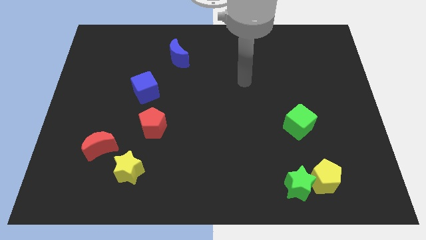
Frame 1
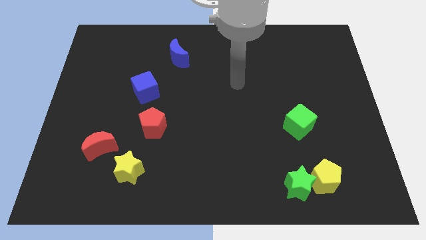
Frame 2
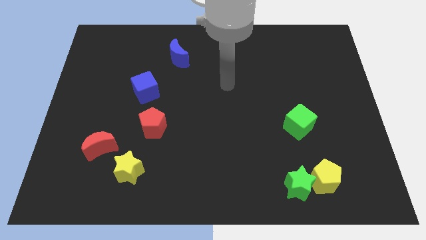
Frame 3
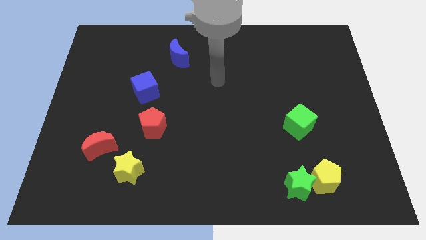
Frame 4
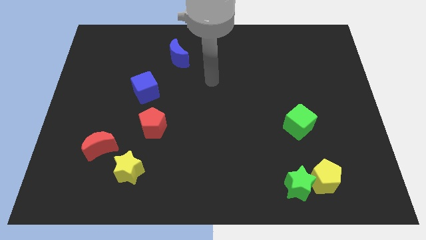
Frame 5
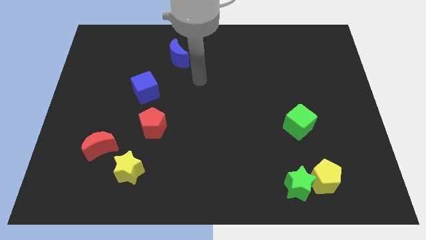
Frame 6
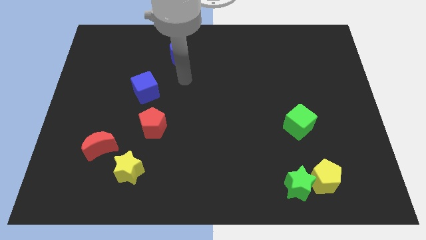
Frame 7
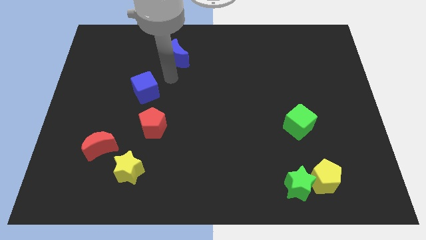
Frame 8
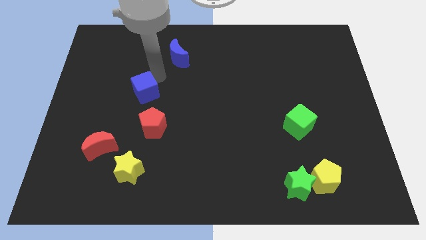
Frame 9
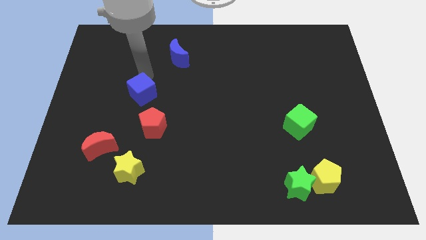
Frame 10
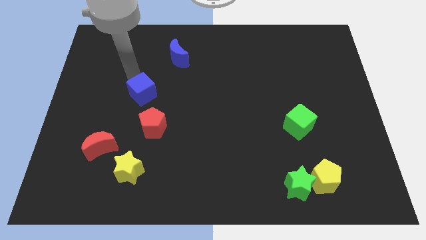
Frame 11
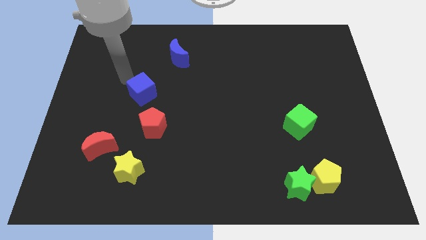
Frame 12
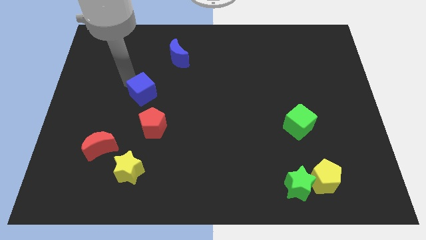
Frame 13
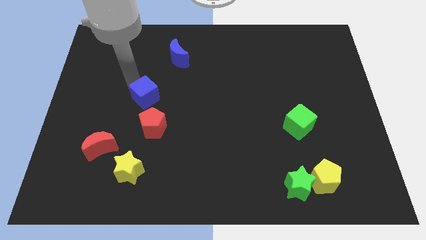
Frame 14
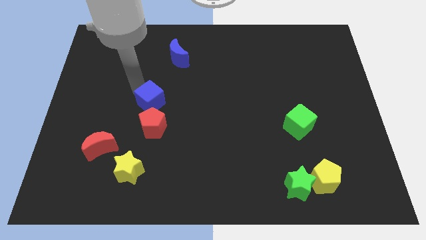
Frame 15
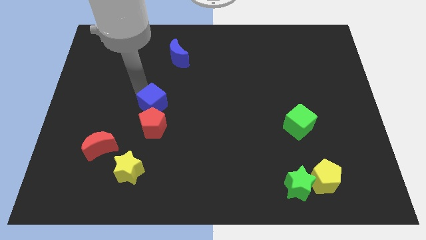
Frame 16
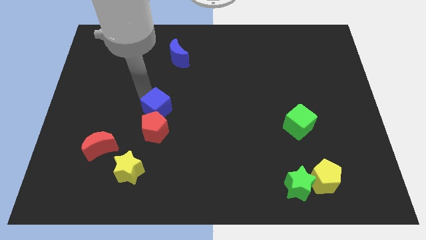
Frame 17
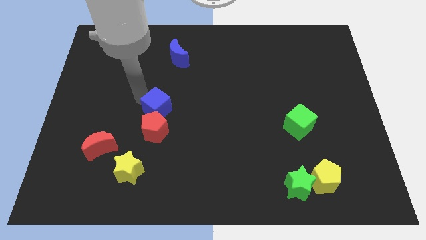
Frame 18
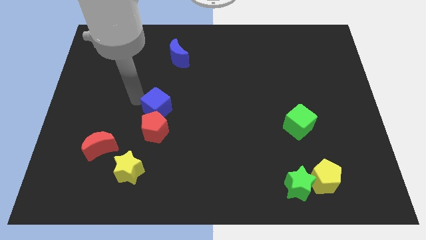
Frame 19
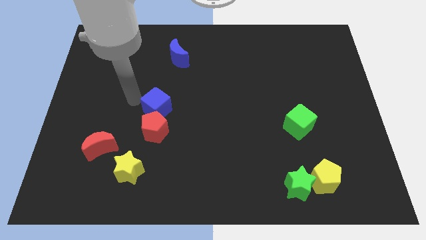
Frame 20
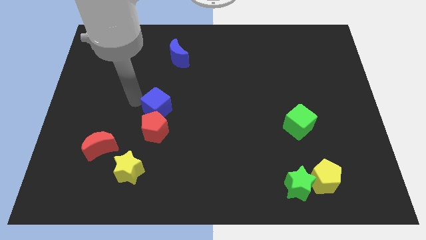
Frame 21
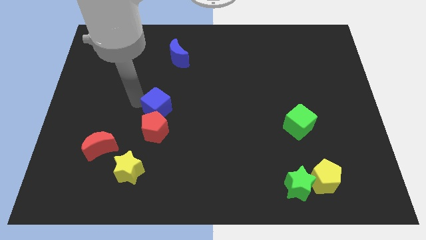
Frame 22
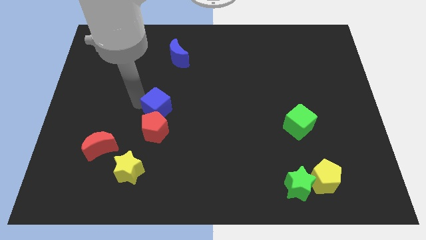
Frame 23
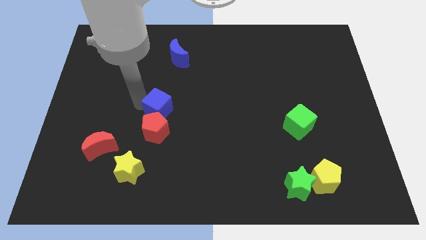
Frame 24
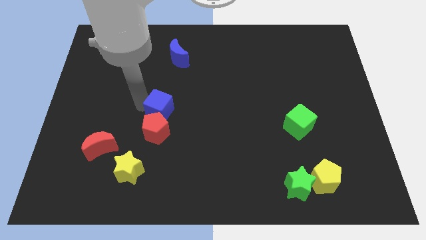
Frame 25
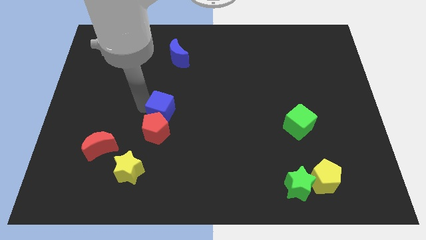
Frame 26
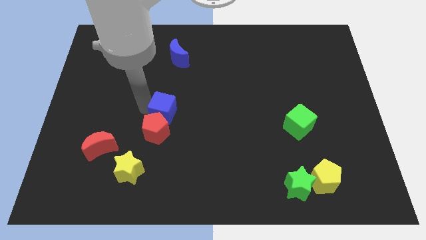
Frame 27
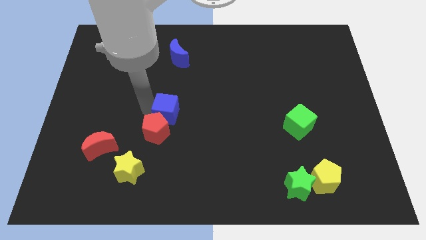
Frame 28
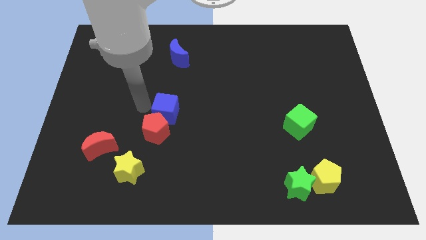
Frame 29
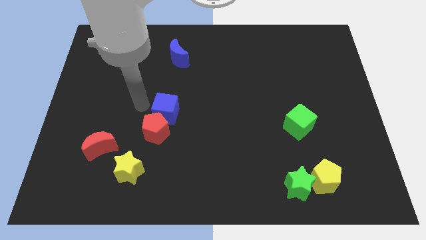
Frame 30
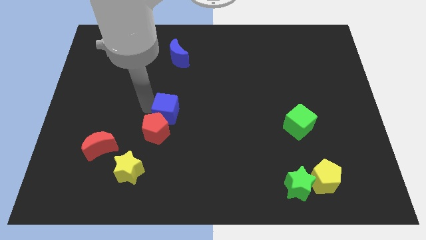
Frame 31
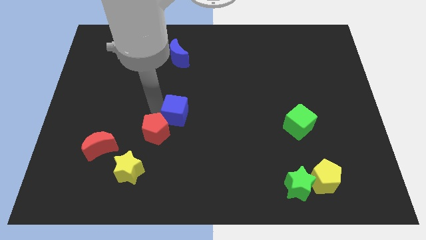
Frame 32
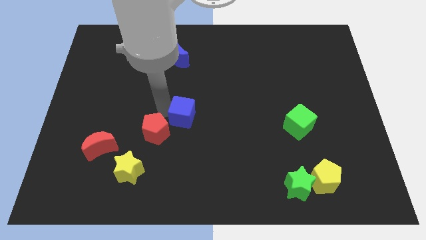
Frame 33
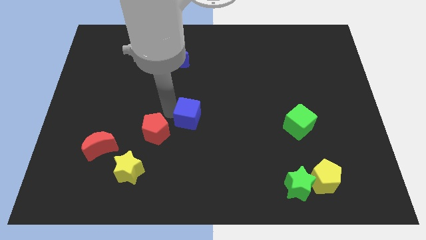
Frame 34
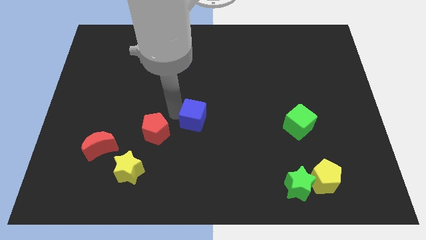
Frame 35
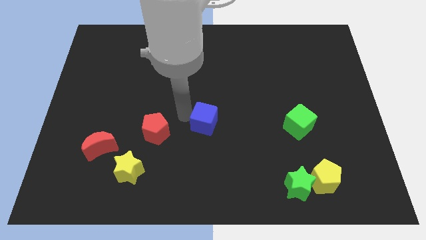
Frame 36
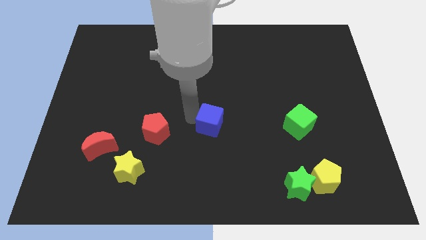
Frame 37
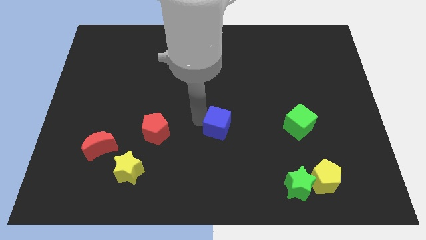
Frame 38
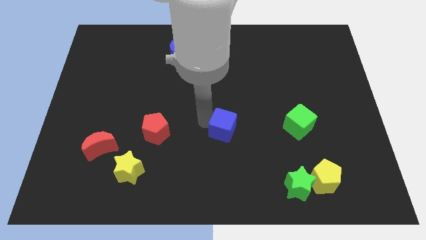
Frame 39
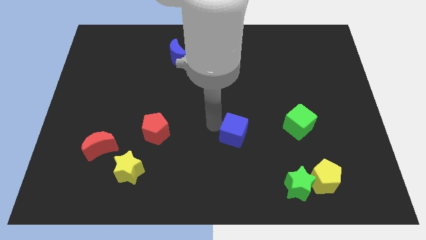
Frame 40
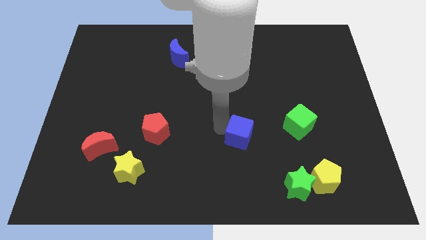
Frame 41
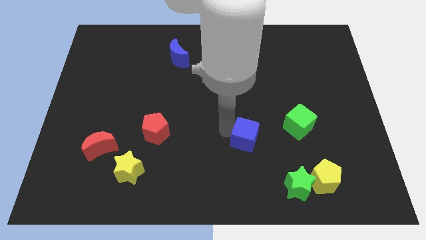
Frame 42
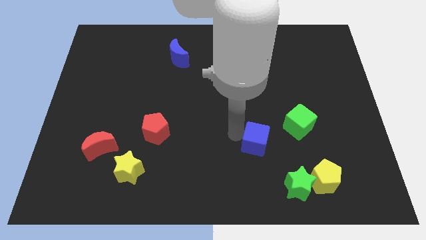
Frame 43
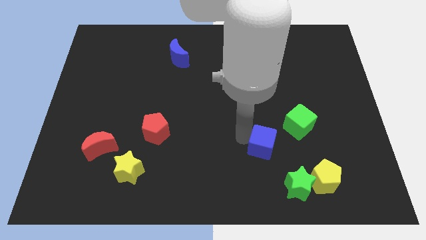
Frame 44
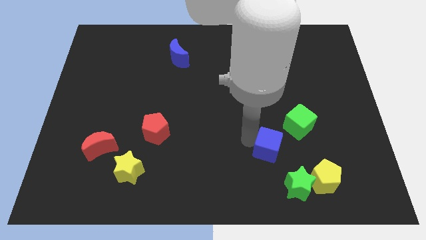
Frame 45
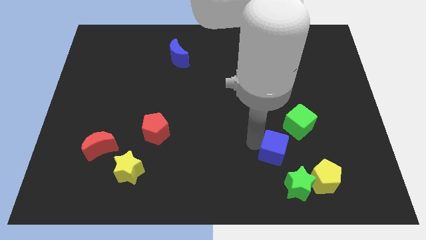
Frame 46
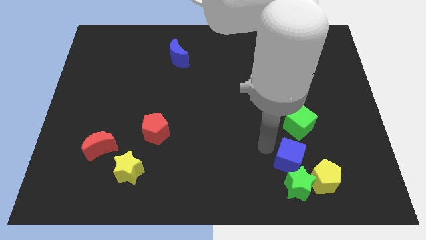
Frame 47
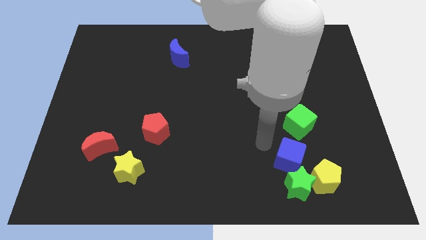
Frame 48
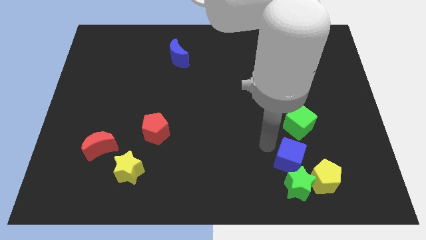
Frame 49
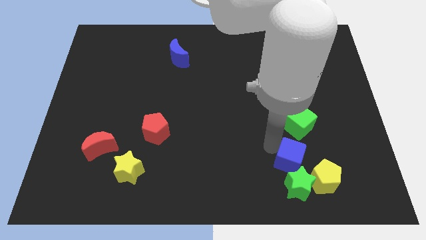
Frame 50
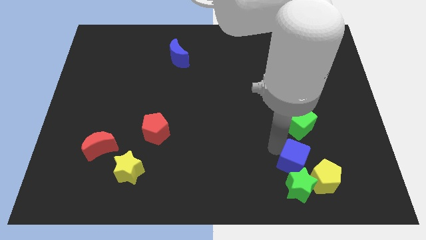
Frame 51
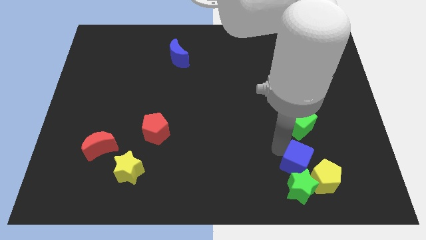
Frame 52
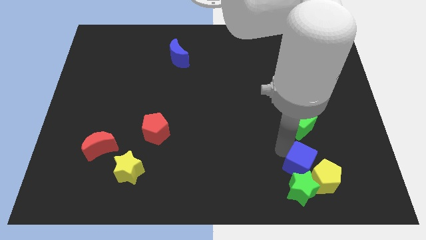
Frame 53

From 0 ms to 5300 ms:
push the blue cube towards the yellow pentagon

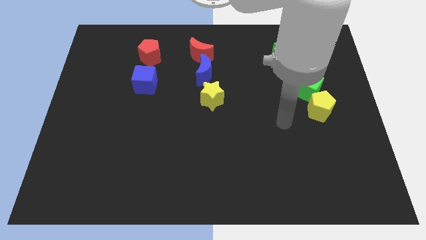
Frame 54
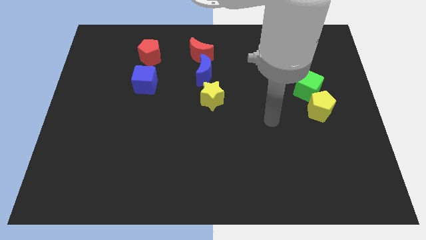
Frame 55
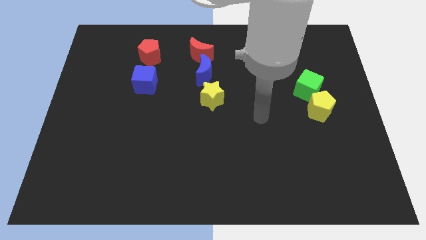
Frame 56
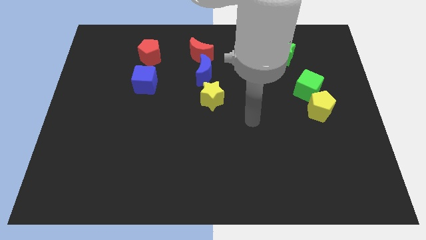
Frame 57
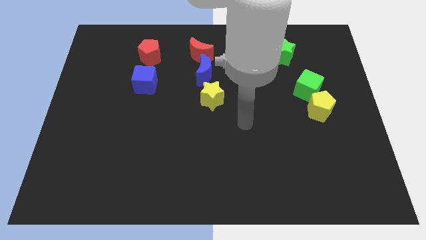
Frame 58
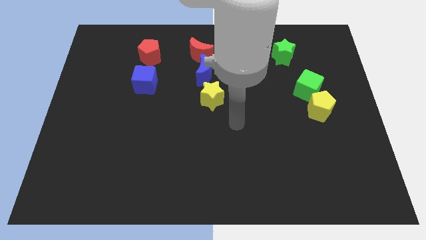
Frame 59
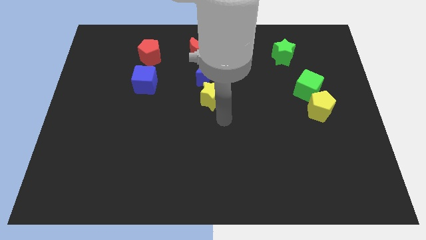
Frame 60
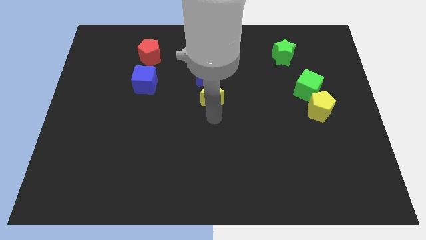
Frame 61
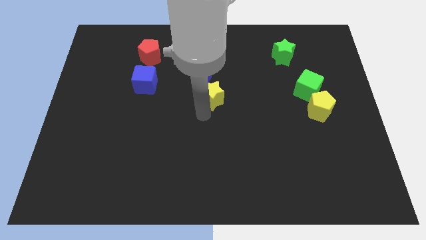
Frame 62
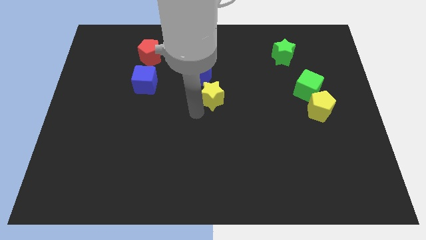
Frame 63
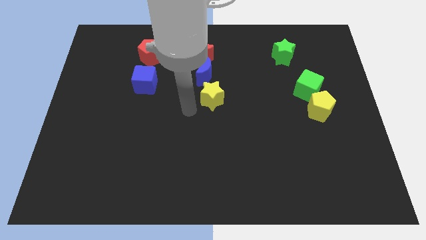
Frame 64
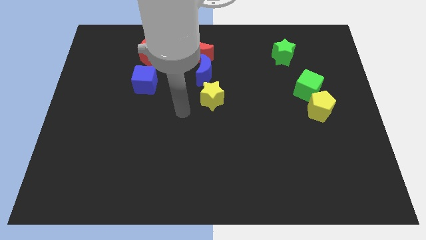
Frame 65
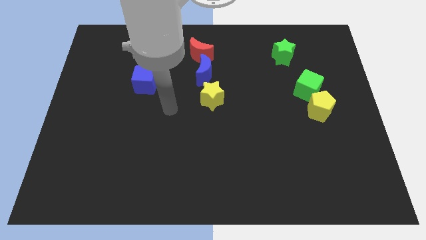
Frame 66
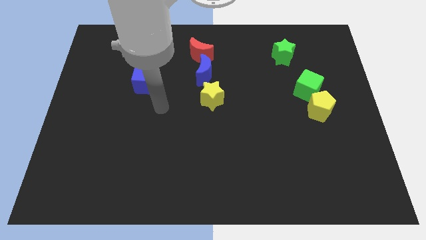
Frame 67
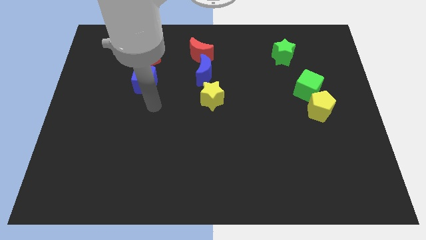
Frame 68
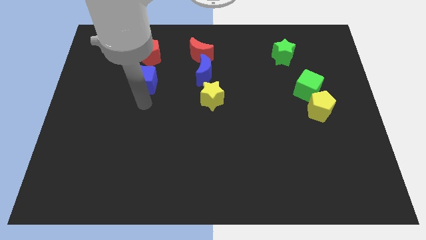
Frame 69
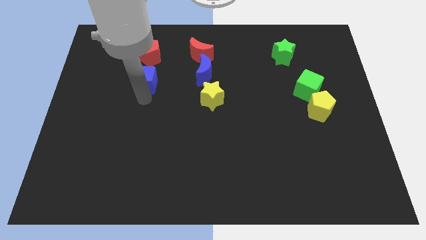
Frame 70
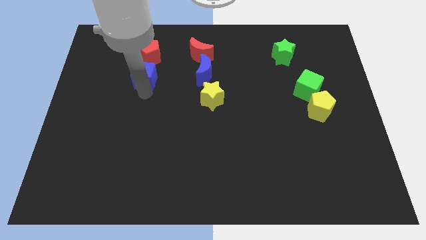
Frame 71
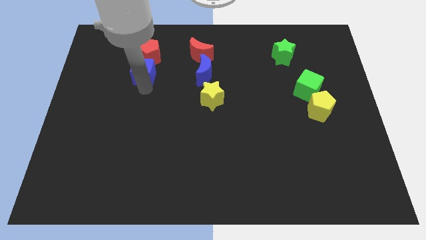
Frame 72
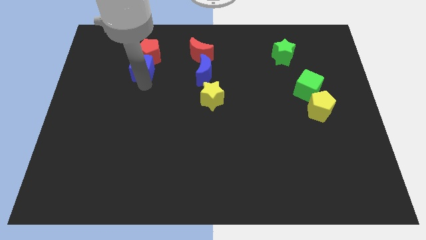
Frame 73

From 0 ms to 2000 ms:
slide the blue cube to the red pentagon
